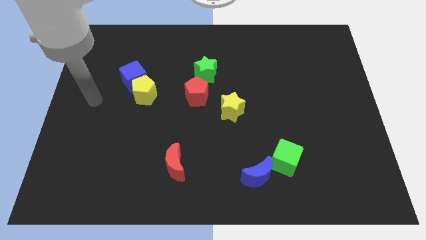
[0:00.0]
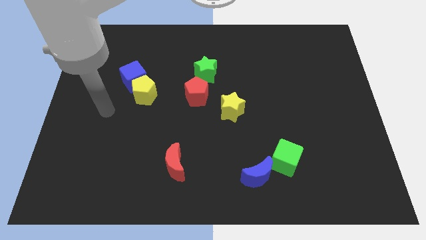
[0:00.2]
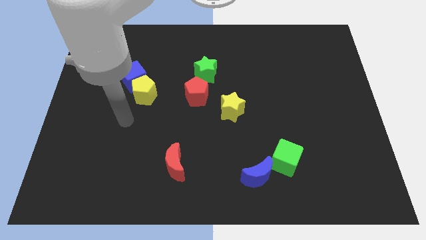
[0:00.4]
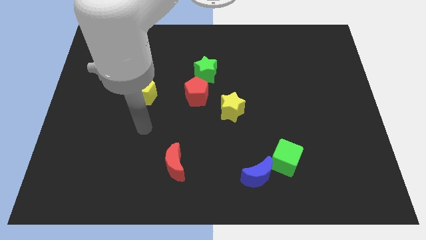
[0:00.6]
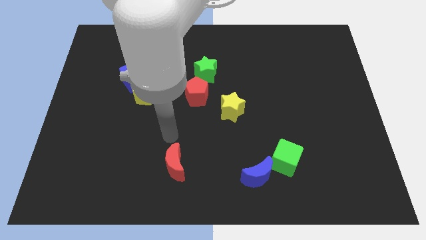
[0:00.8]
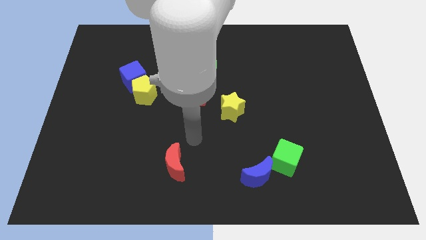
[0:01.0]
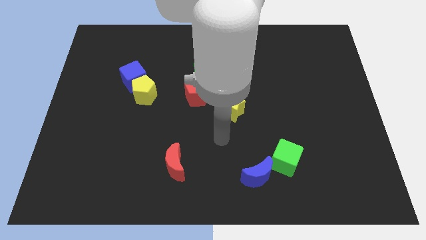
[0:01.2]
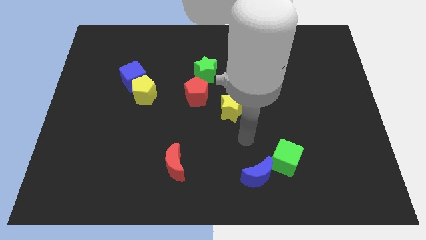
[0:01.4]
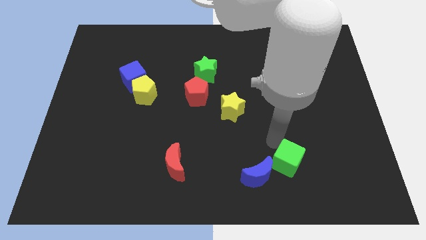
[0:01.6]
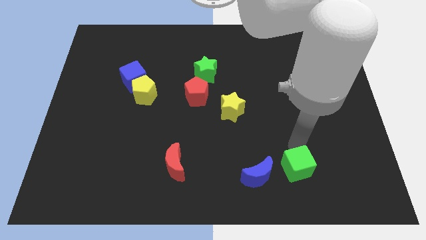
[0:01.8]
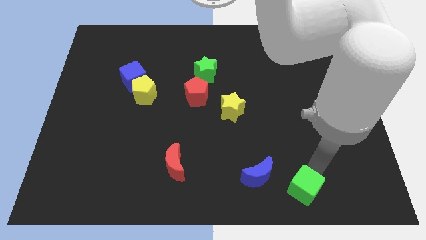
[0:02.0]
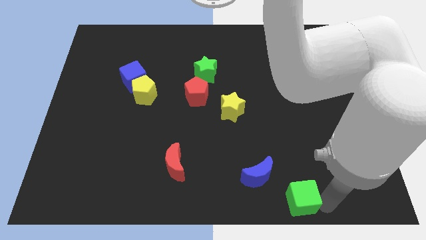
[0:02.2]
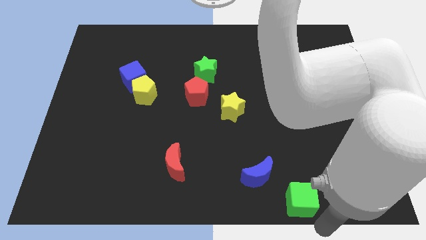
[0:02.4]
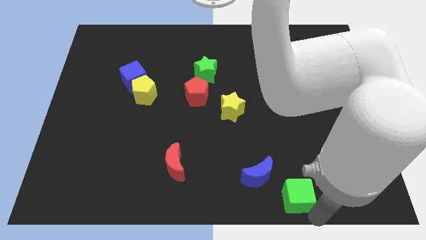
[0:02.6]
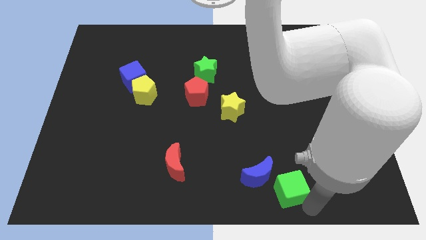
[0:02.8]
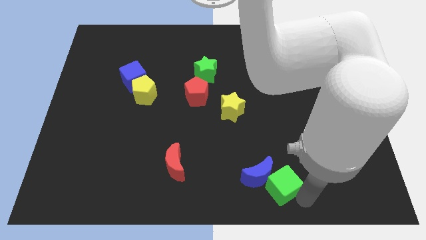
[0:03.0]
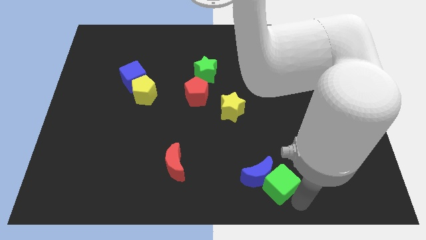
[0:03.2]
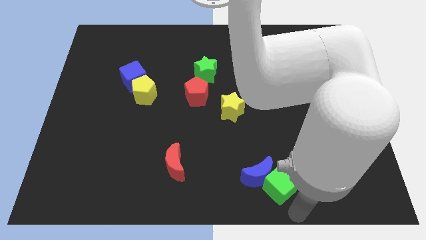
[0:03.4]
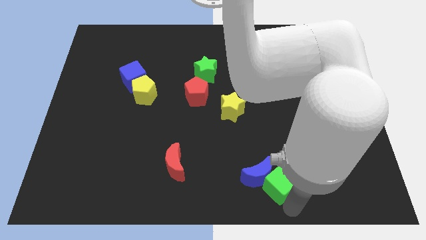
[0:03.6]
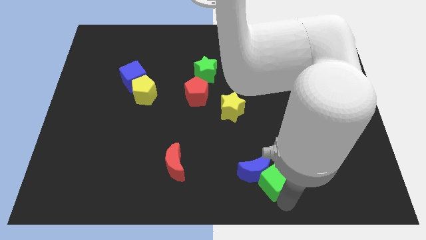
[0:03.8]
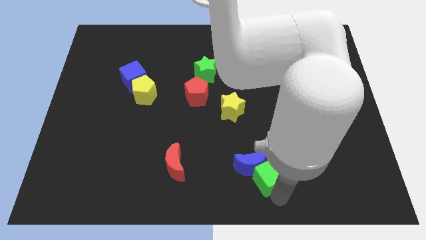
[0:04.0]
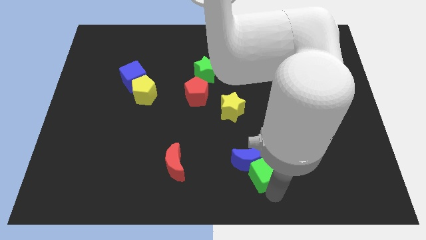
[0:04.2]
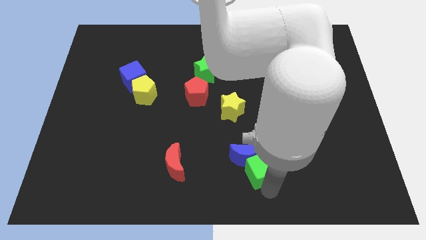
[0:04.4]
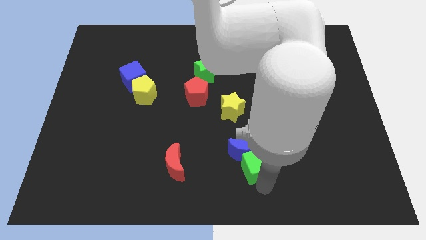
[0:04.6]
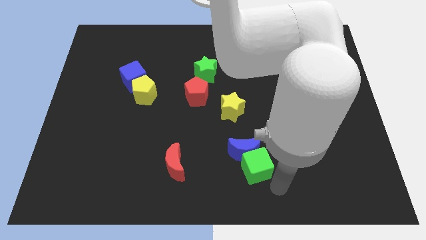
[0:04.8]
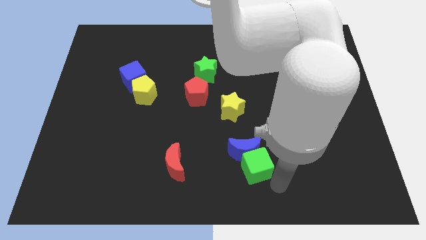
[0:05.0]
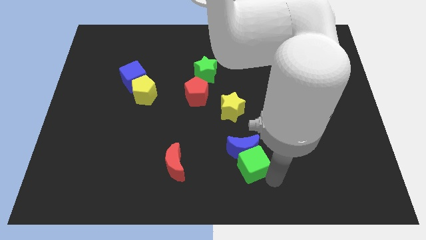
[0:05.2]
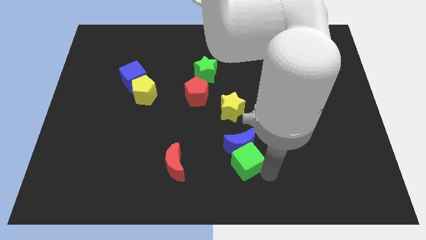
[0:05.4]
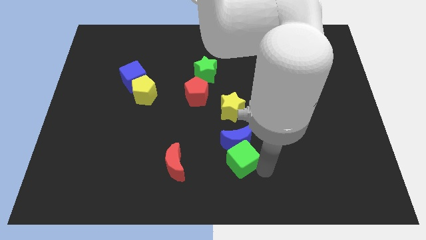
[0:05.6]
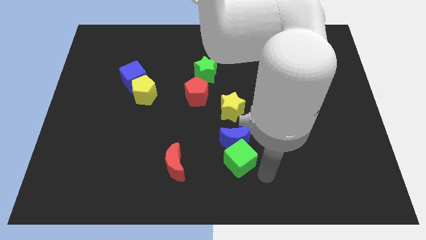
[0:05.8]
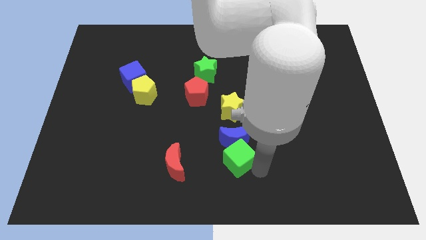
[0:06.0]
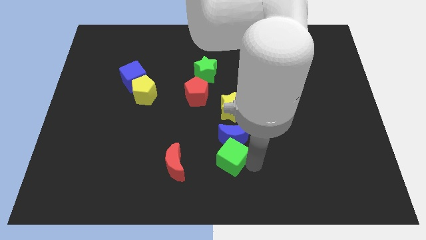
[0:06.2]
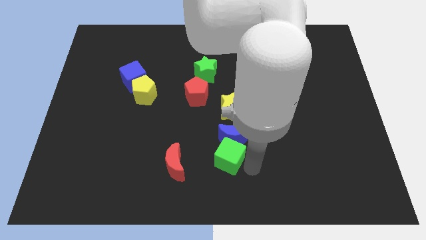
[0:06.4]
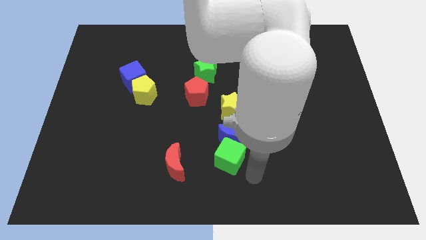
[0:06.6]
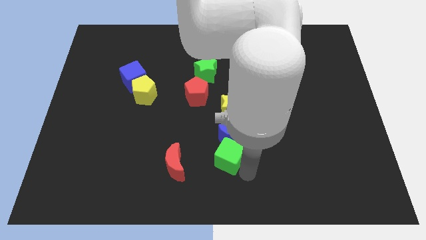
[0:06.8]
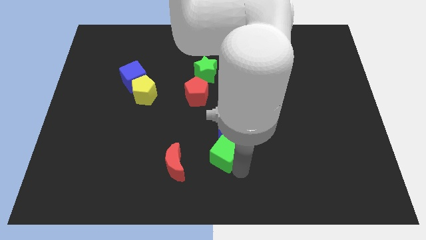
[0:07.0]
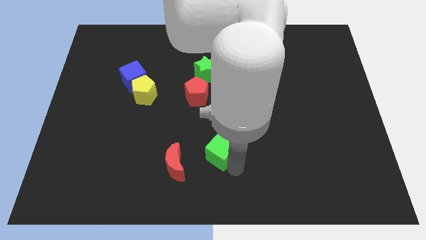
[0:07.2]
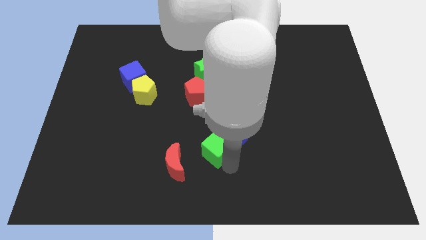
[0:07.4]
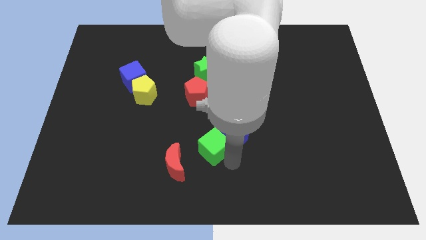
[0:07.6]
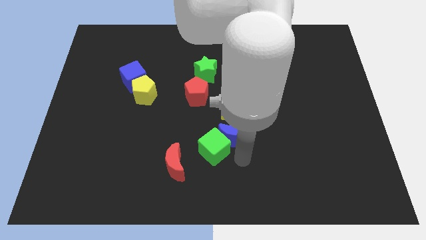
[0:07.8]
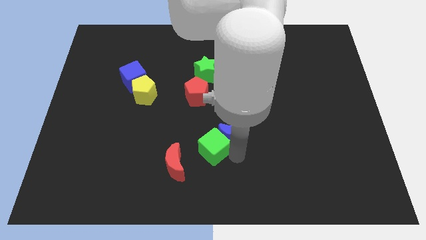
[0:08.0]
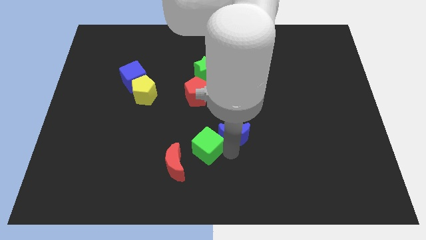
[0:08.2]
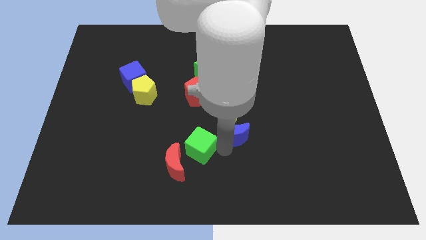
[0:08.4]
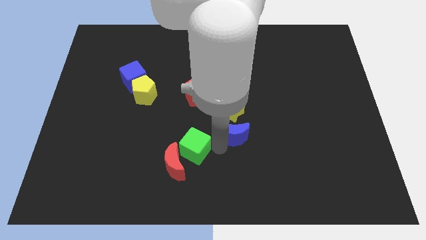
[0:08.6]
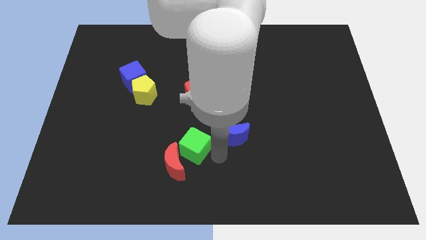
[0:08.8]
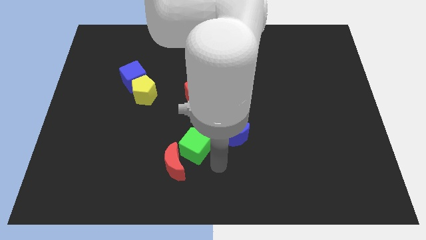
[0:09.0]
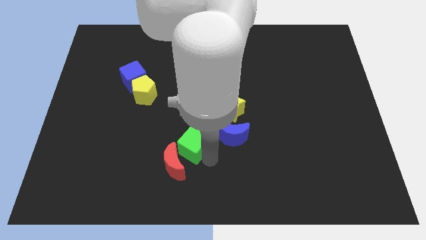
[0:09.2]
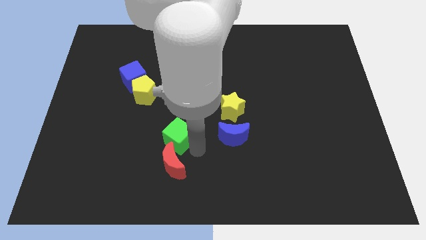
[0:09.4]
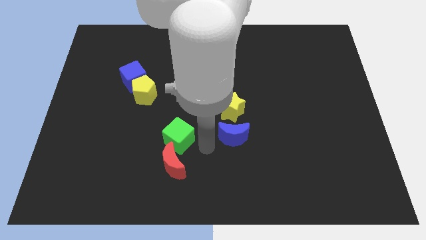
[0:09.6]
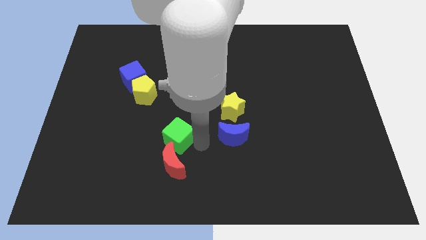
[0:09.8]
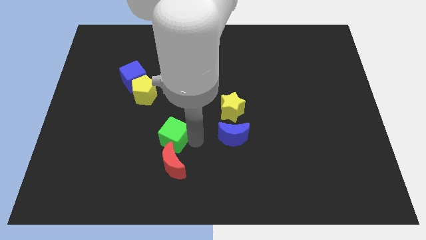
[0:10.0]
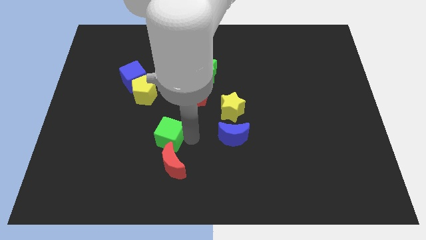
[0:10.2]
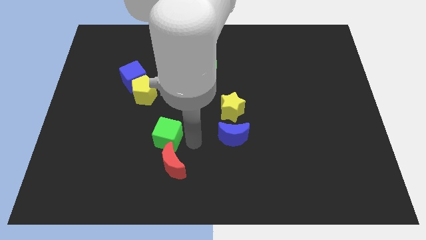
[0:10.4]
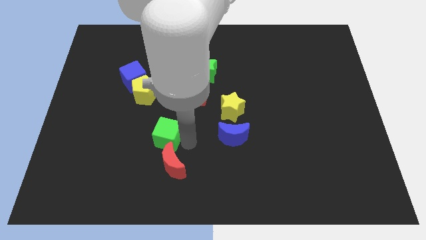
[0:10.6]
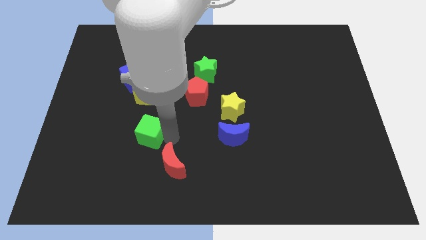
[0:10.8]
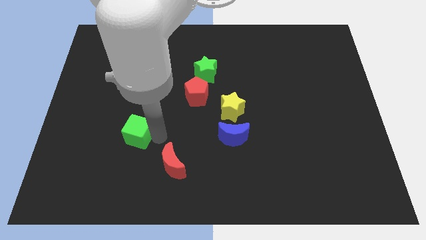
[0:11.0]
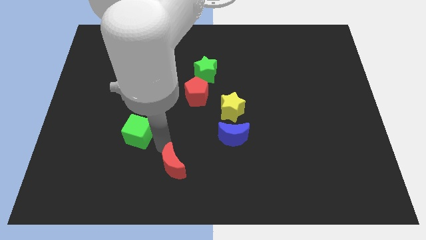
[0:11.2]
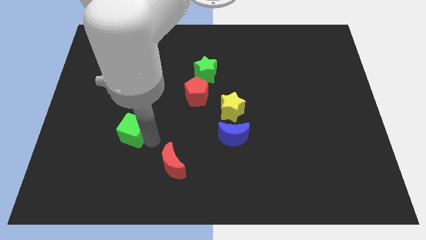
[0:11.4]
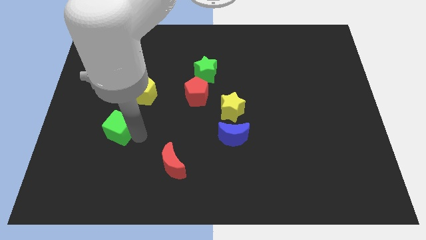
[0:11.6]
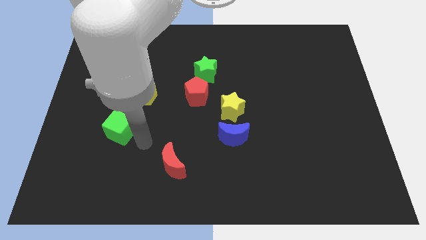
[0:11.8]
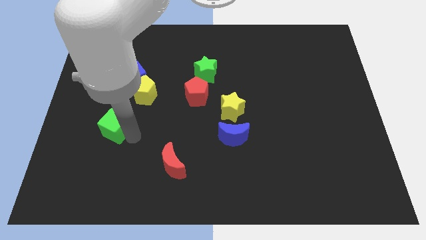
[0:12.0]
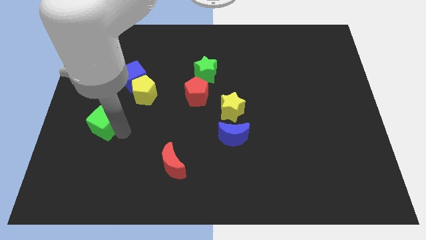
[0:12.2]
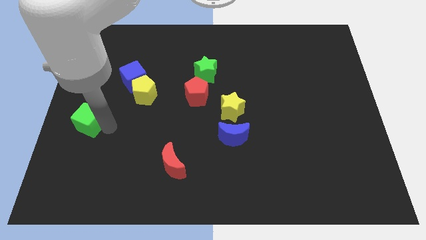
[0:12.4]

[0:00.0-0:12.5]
slide the green cube to the center left

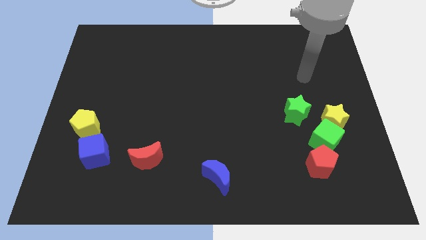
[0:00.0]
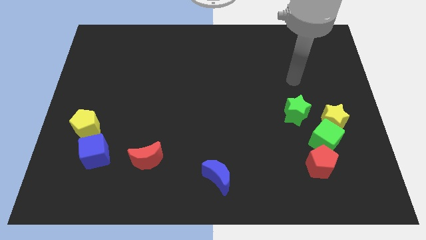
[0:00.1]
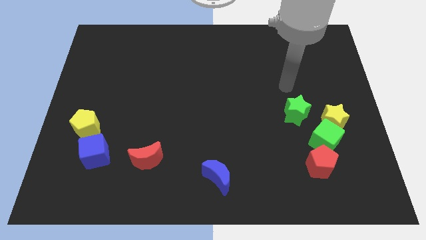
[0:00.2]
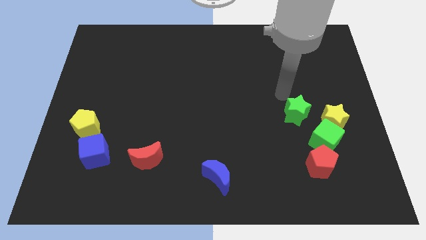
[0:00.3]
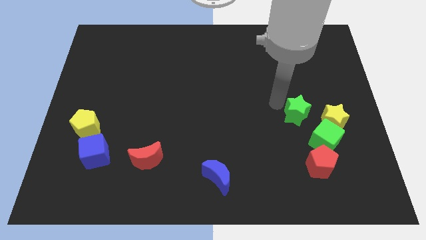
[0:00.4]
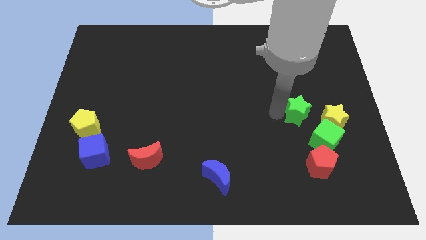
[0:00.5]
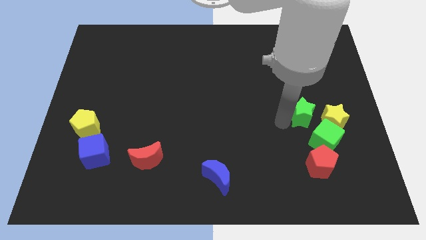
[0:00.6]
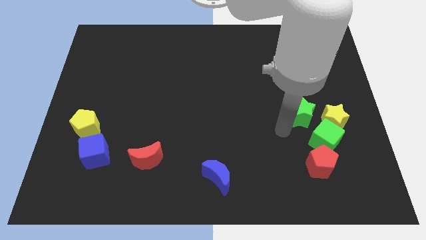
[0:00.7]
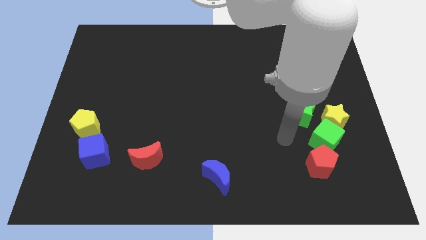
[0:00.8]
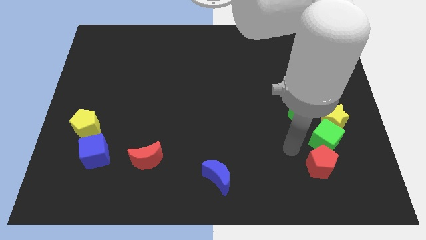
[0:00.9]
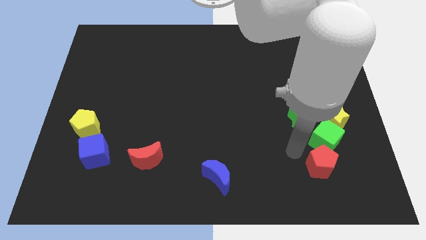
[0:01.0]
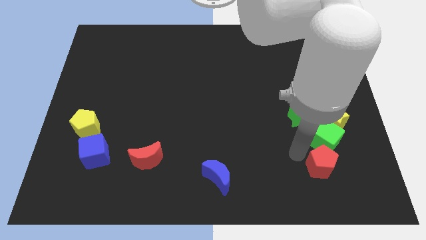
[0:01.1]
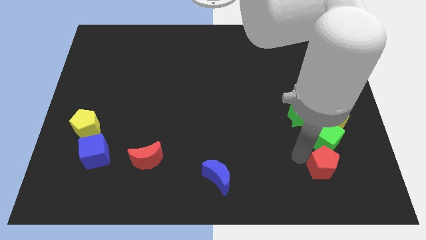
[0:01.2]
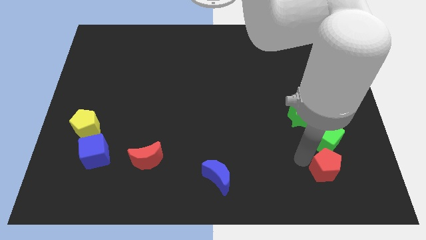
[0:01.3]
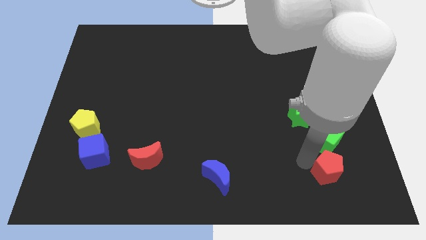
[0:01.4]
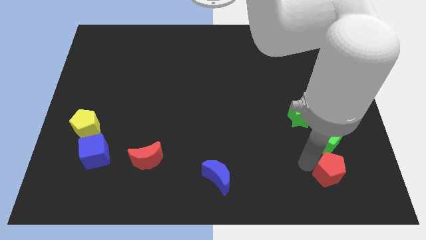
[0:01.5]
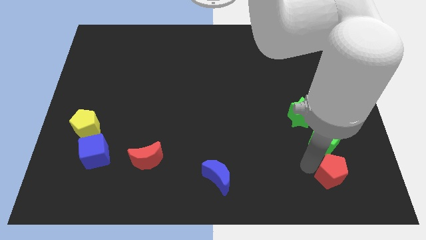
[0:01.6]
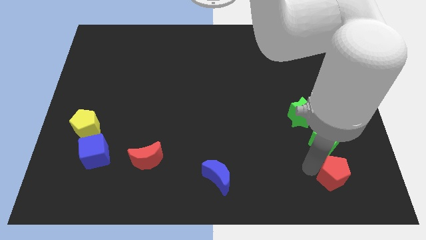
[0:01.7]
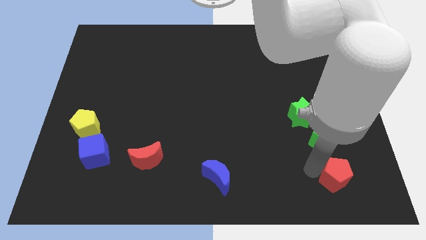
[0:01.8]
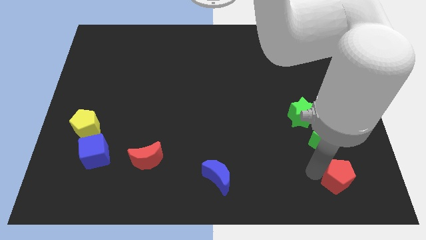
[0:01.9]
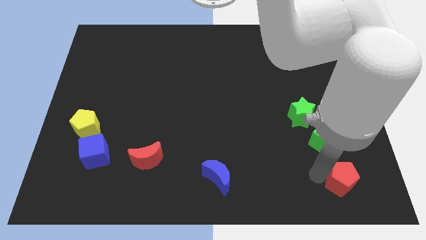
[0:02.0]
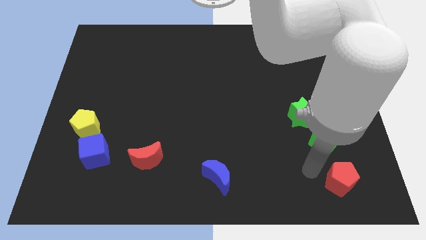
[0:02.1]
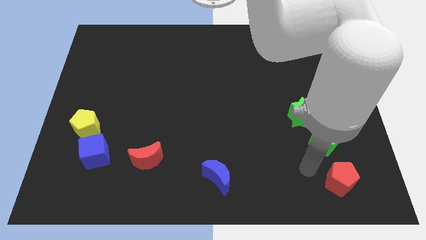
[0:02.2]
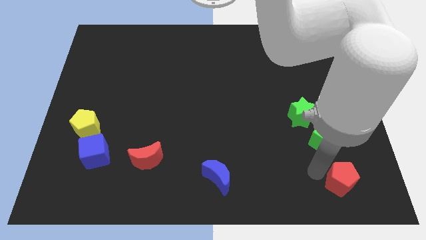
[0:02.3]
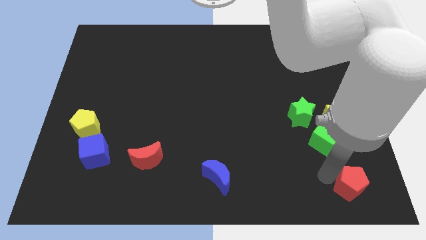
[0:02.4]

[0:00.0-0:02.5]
put the red pentagon to the bottom right
